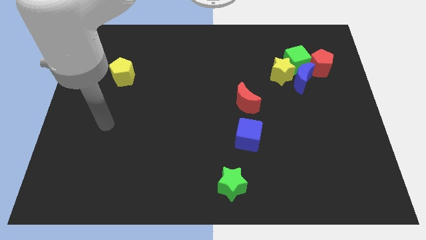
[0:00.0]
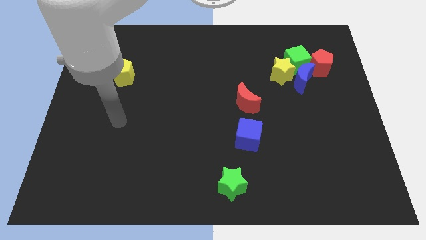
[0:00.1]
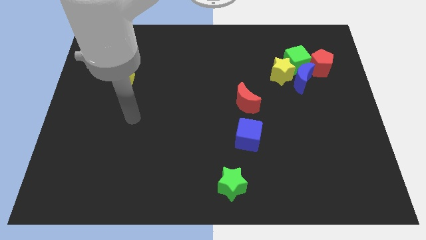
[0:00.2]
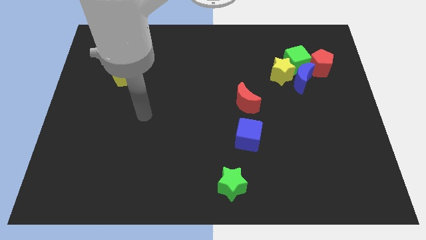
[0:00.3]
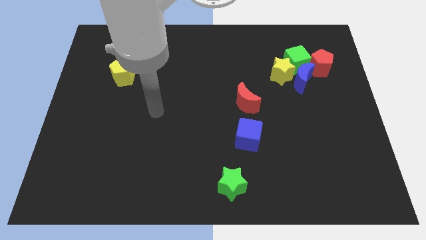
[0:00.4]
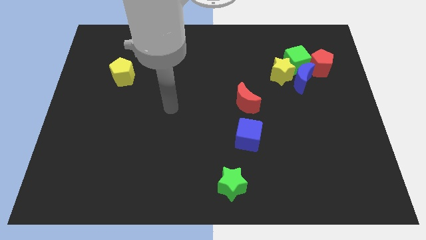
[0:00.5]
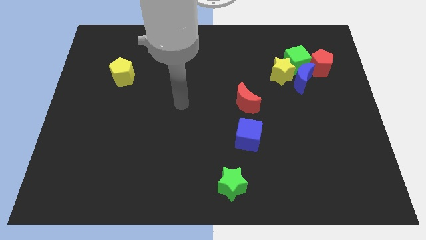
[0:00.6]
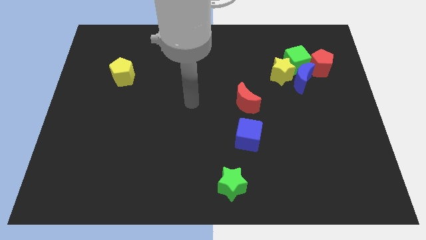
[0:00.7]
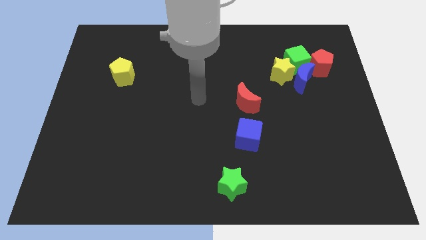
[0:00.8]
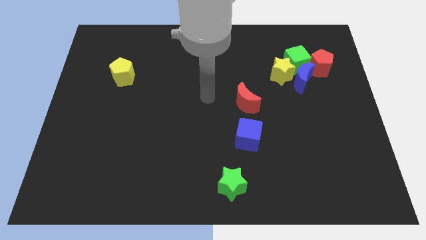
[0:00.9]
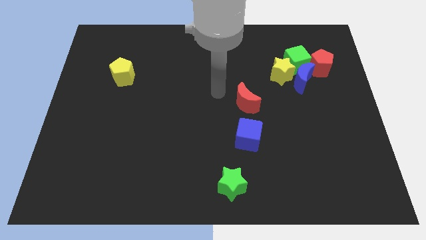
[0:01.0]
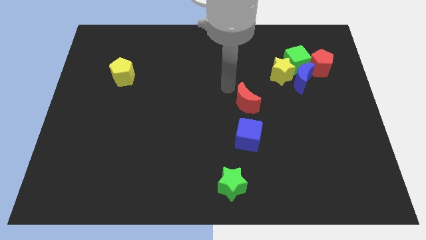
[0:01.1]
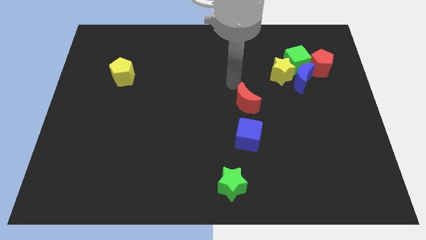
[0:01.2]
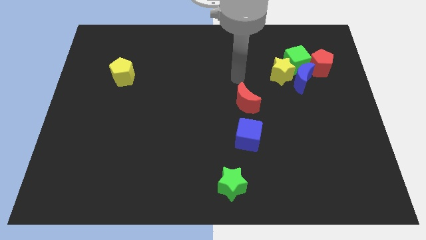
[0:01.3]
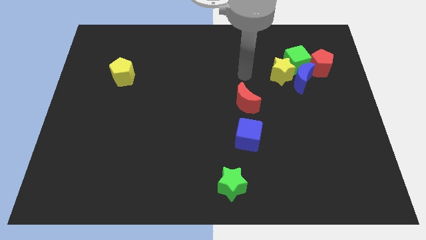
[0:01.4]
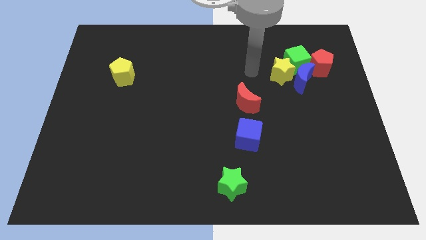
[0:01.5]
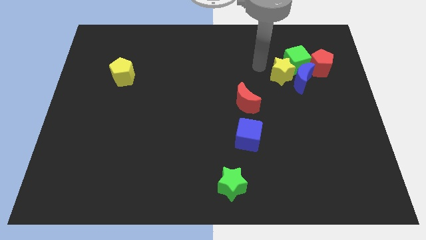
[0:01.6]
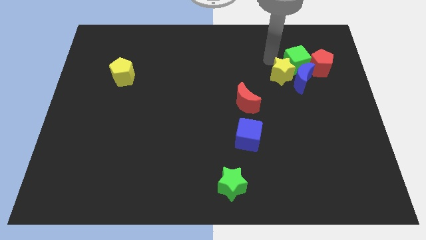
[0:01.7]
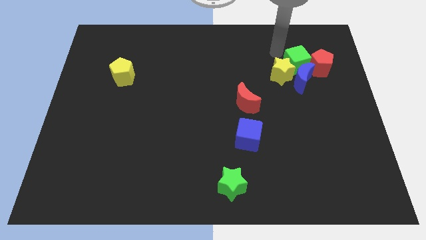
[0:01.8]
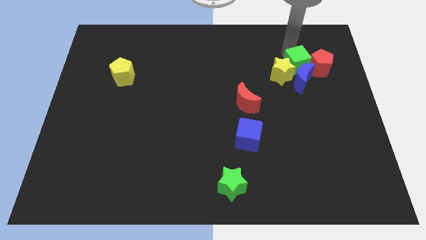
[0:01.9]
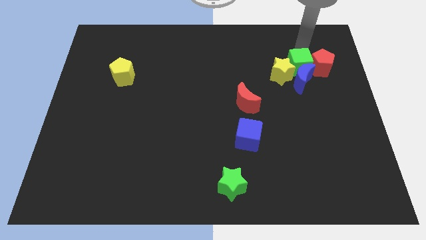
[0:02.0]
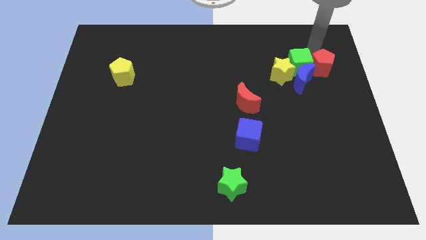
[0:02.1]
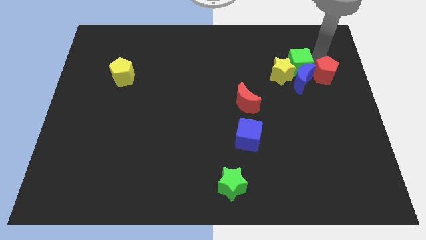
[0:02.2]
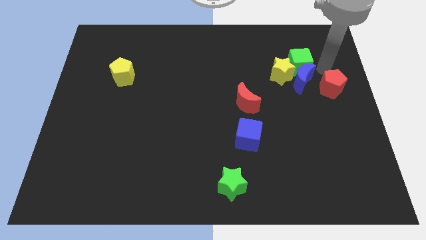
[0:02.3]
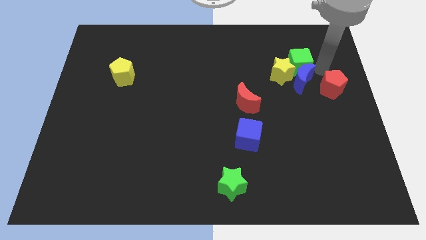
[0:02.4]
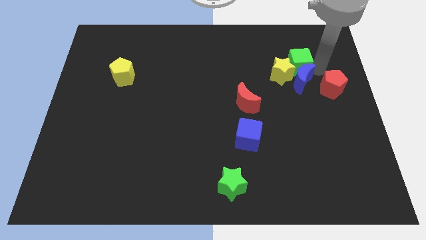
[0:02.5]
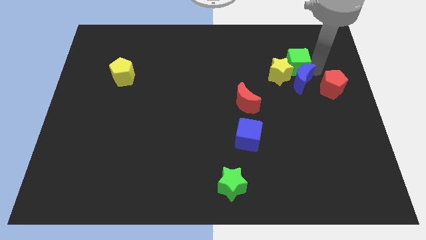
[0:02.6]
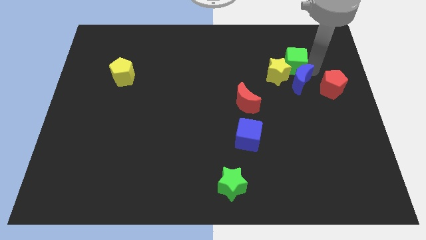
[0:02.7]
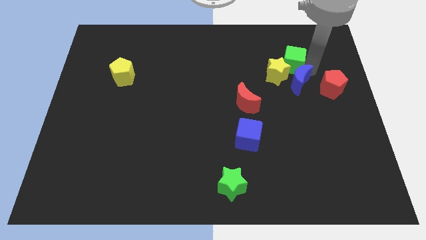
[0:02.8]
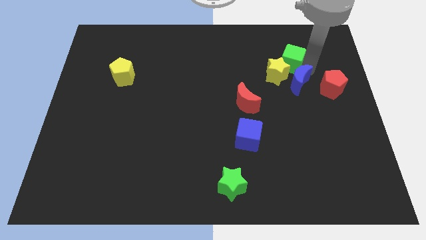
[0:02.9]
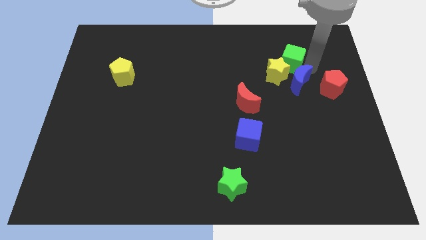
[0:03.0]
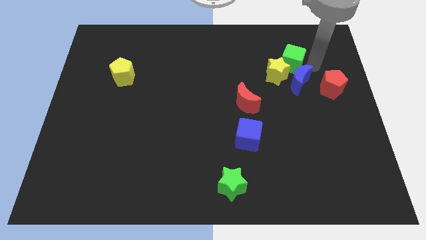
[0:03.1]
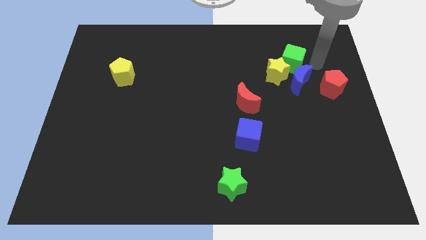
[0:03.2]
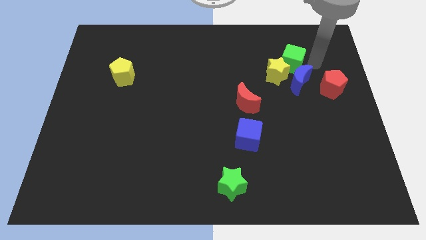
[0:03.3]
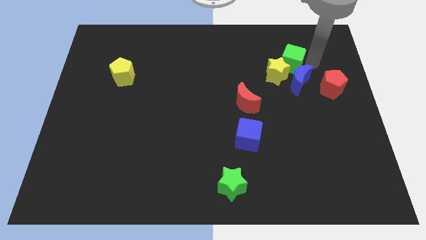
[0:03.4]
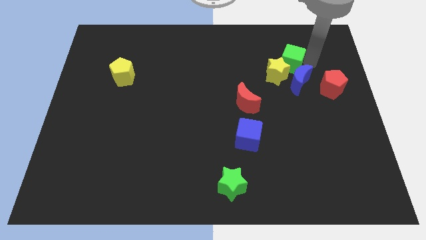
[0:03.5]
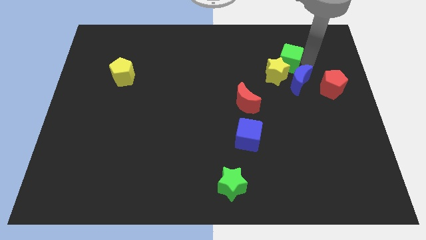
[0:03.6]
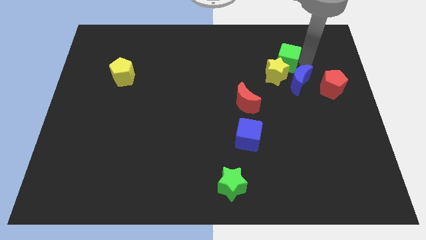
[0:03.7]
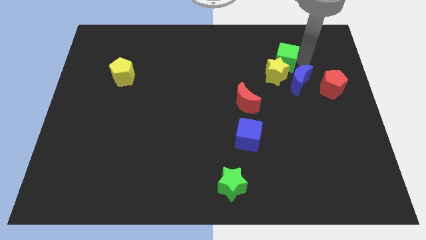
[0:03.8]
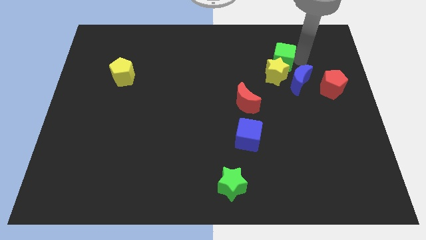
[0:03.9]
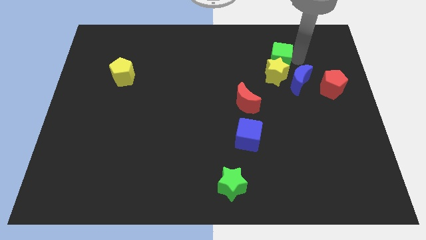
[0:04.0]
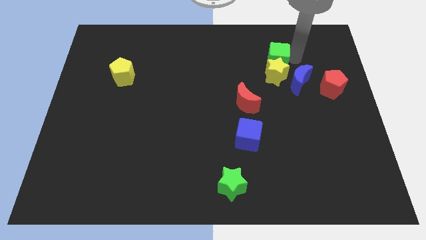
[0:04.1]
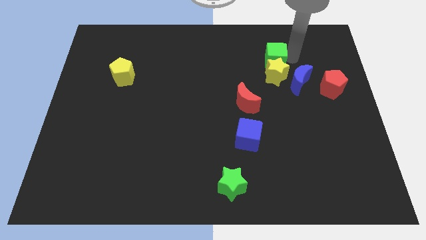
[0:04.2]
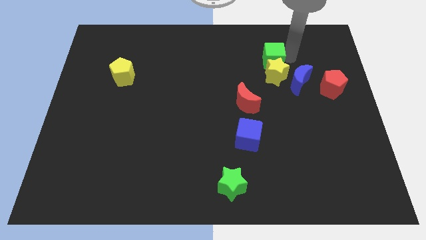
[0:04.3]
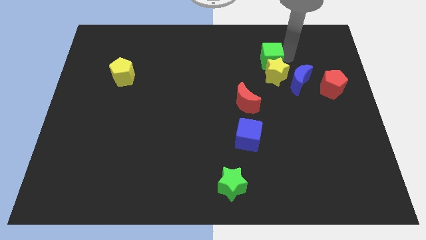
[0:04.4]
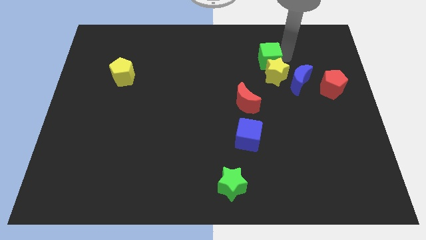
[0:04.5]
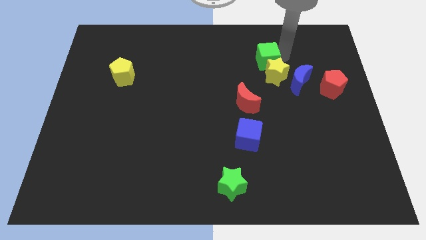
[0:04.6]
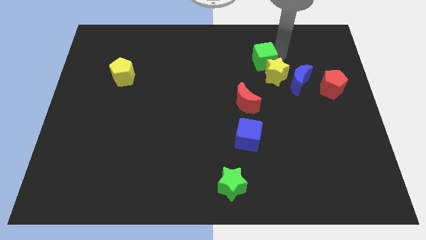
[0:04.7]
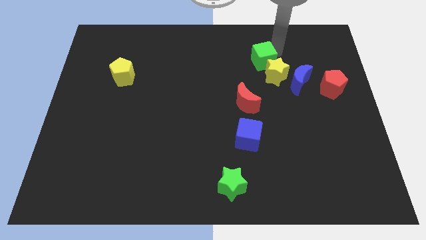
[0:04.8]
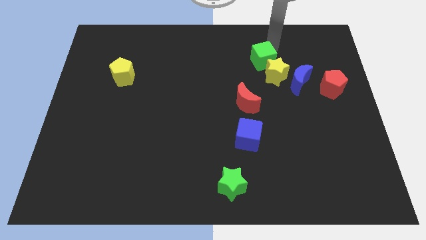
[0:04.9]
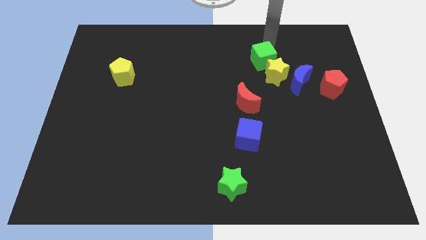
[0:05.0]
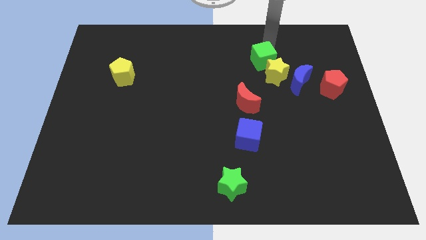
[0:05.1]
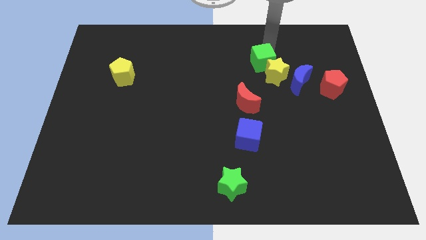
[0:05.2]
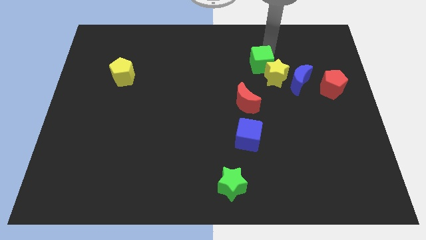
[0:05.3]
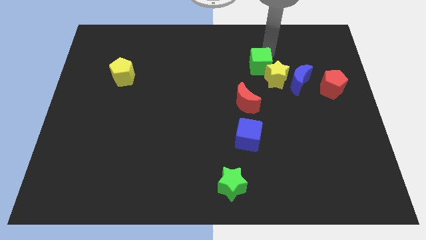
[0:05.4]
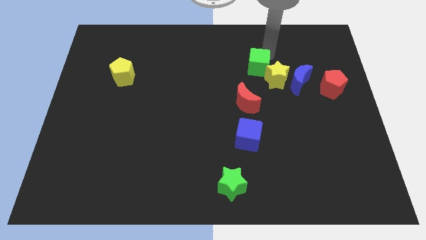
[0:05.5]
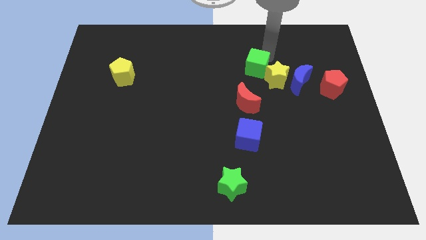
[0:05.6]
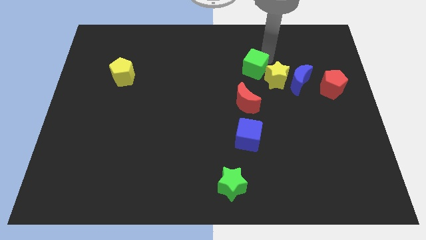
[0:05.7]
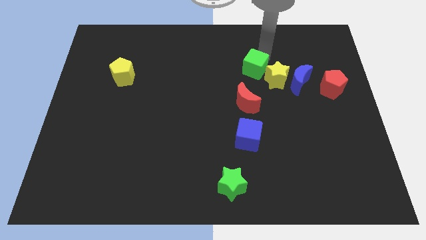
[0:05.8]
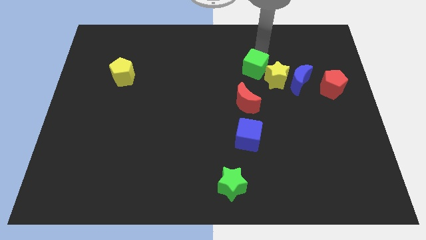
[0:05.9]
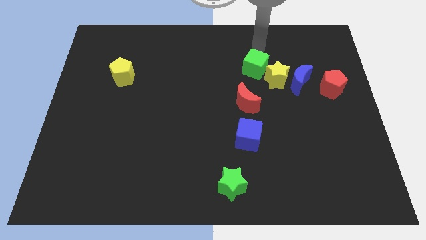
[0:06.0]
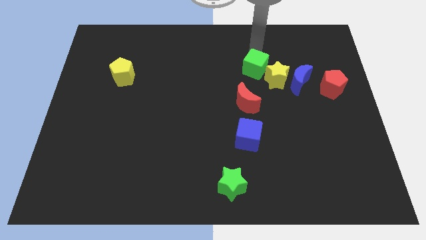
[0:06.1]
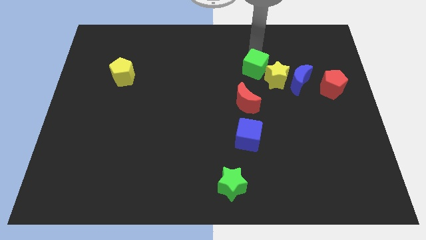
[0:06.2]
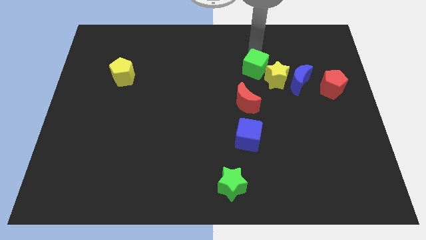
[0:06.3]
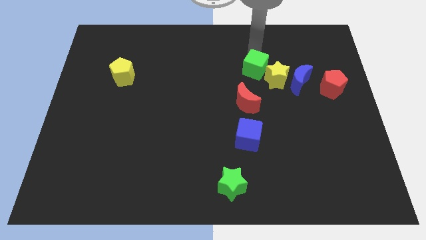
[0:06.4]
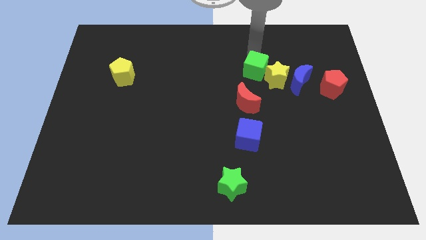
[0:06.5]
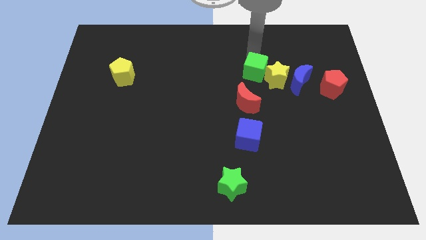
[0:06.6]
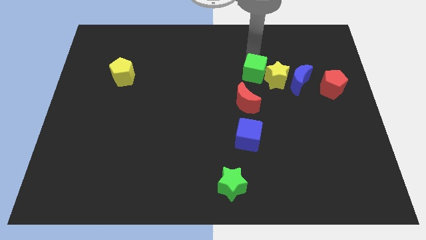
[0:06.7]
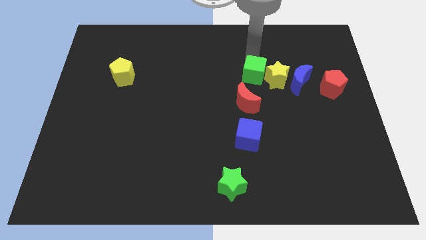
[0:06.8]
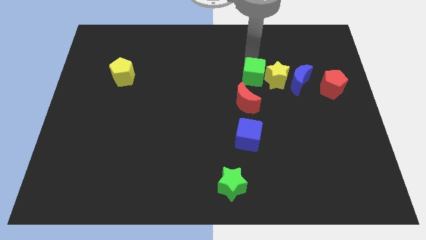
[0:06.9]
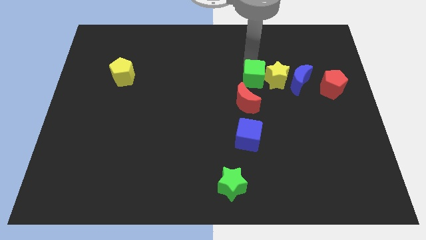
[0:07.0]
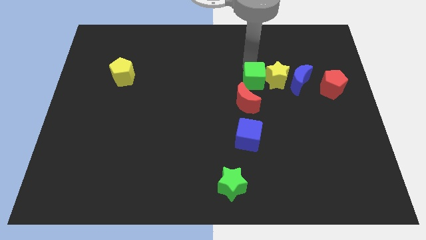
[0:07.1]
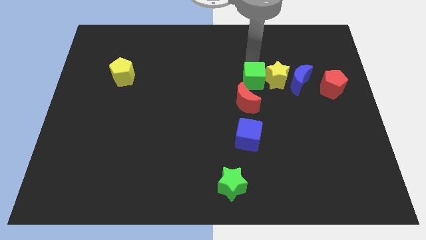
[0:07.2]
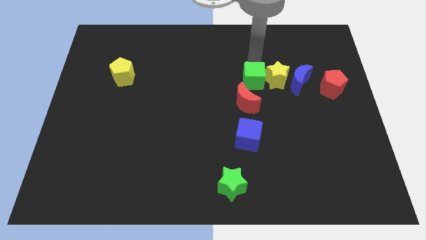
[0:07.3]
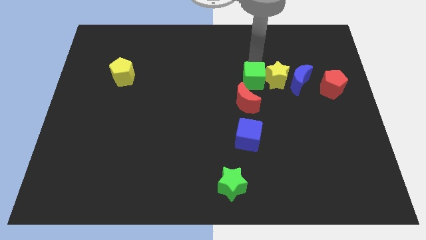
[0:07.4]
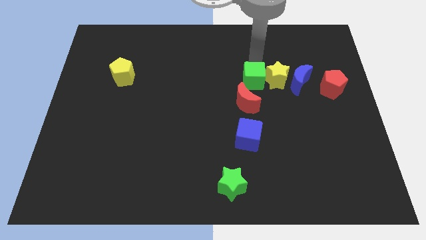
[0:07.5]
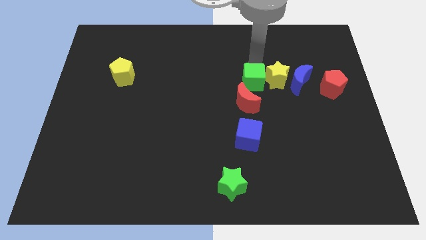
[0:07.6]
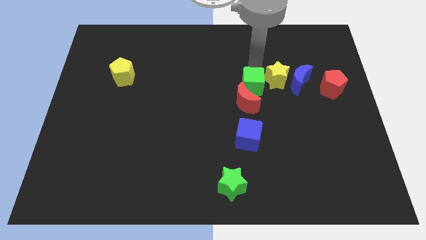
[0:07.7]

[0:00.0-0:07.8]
push the green cube to the red moon

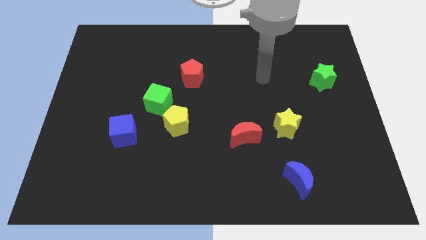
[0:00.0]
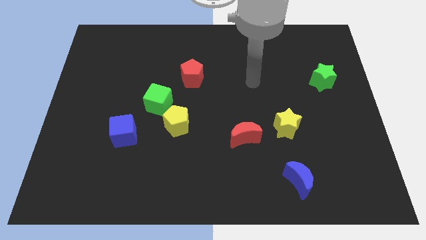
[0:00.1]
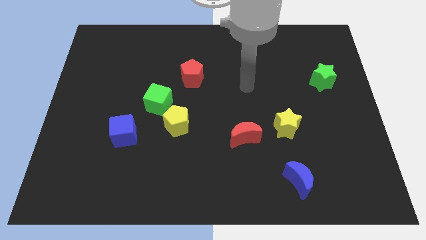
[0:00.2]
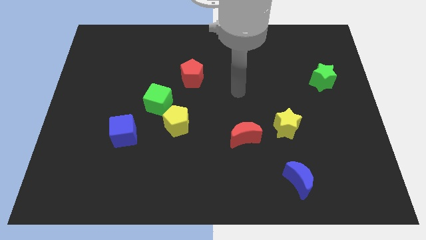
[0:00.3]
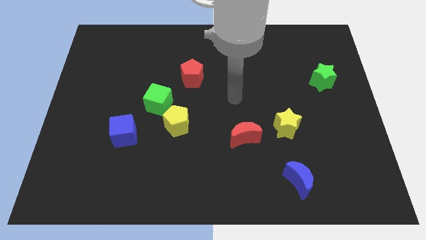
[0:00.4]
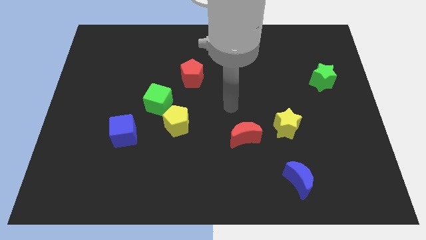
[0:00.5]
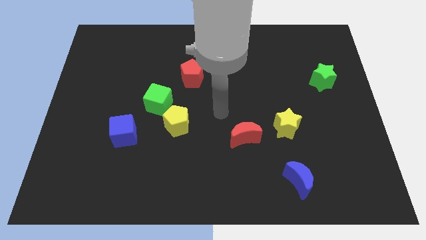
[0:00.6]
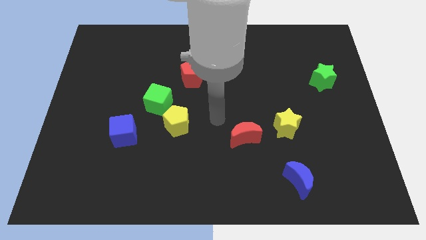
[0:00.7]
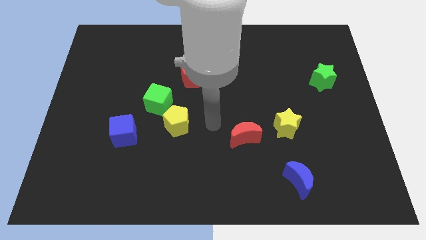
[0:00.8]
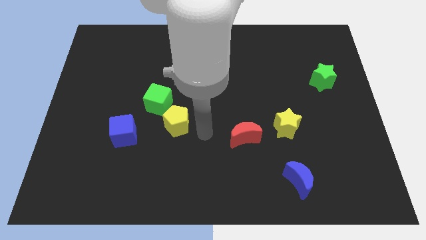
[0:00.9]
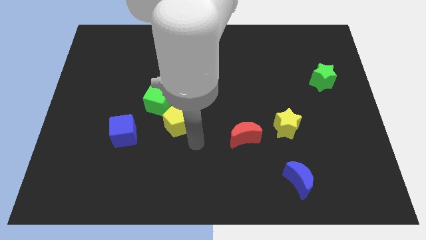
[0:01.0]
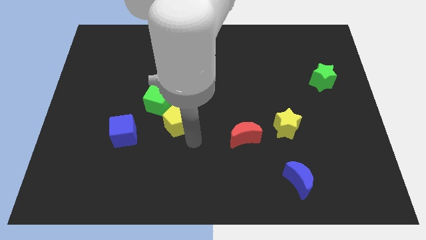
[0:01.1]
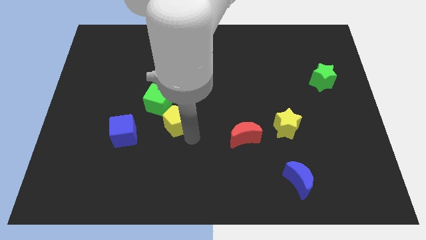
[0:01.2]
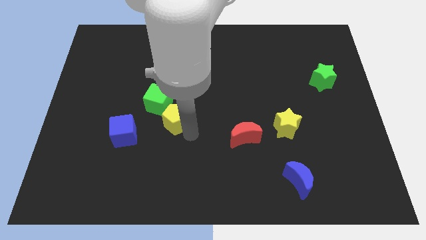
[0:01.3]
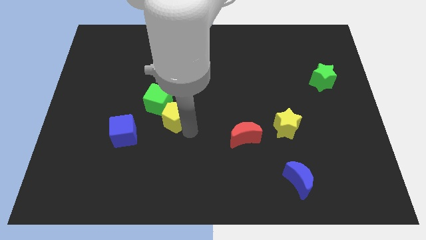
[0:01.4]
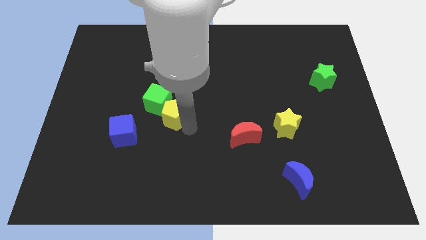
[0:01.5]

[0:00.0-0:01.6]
push the yellow pentagon close to the green cube
